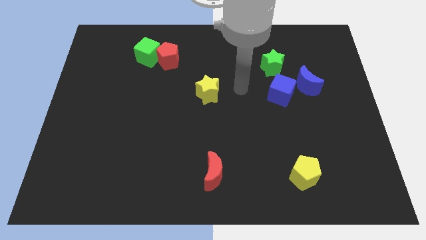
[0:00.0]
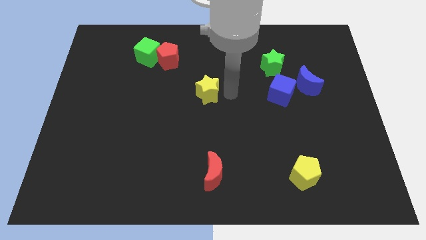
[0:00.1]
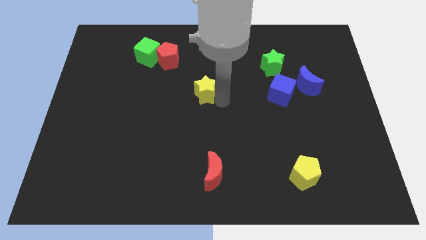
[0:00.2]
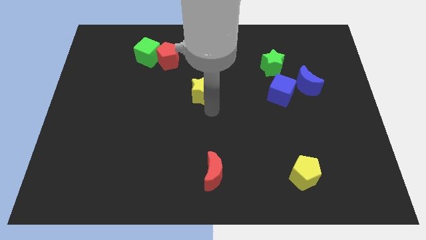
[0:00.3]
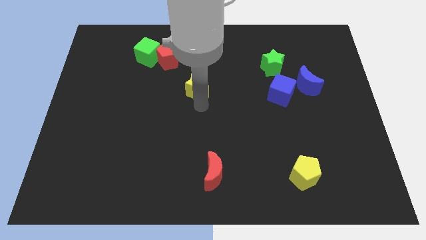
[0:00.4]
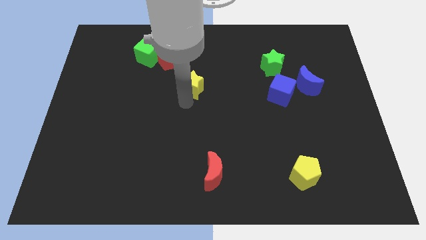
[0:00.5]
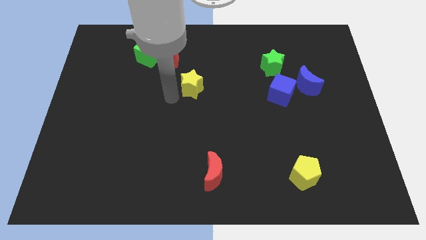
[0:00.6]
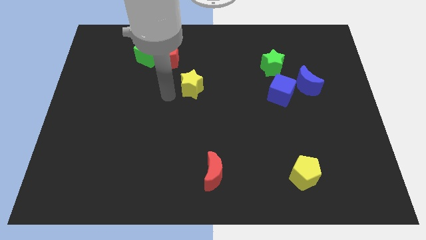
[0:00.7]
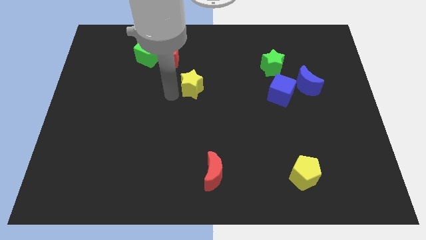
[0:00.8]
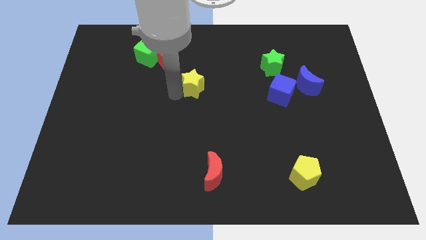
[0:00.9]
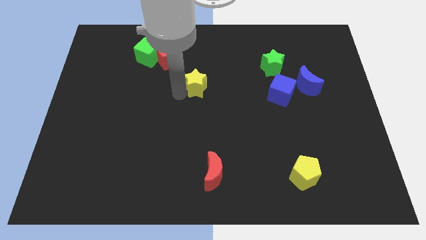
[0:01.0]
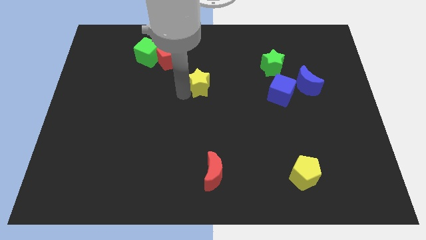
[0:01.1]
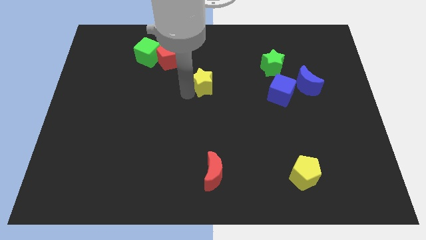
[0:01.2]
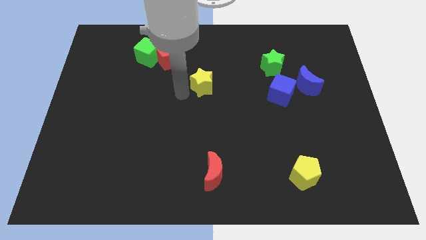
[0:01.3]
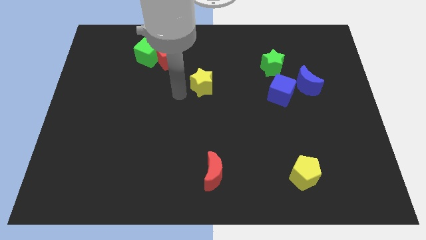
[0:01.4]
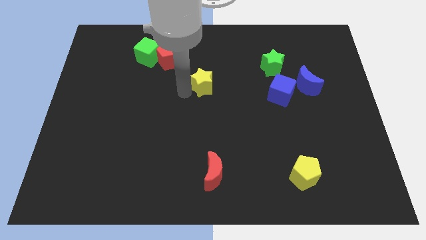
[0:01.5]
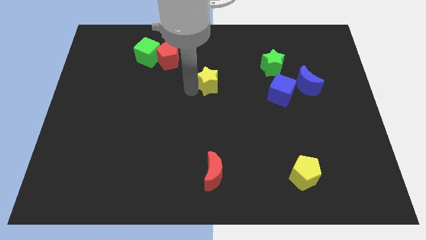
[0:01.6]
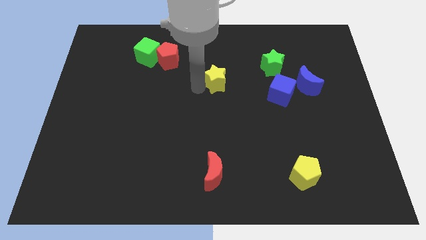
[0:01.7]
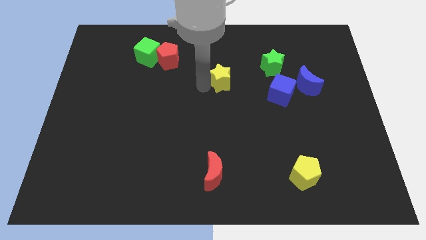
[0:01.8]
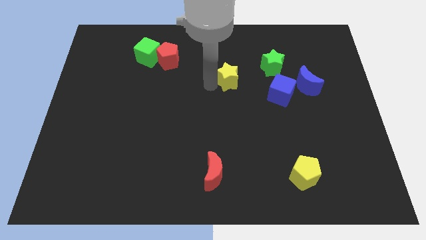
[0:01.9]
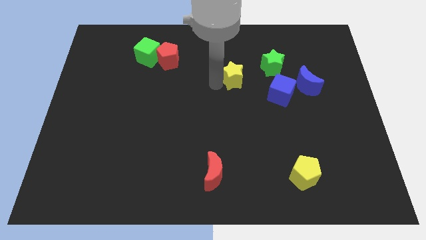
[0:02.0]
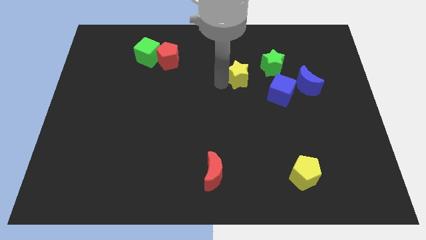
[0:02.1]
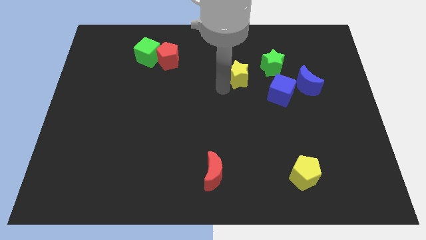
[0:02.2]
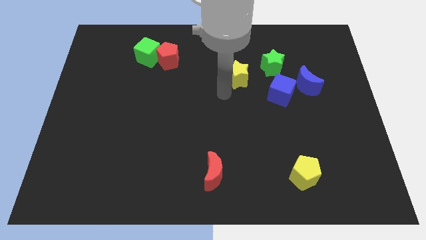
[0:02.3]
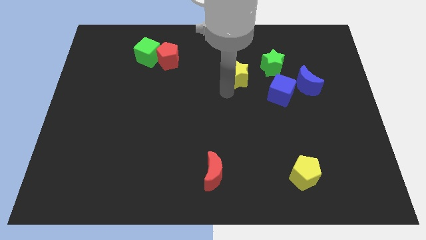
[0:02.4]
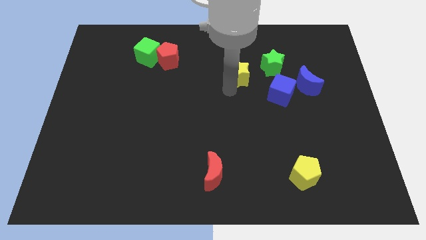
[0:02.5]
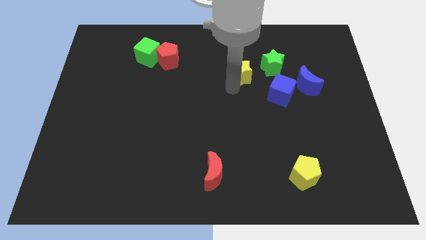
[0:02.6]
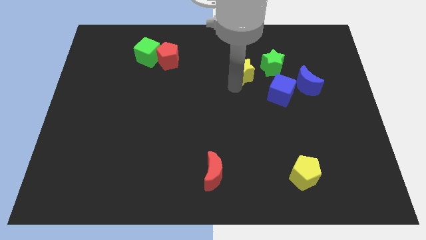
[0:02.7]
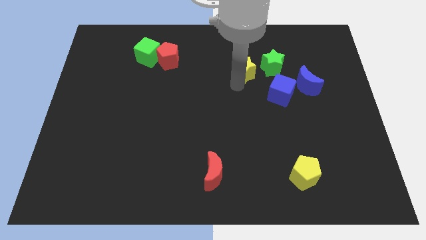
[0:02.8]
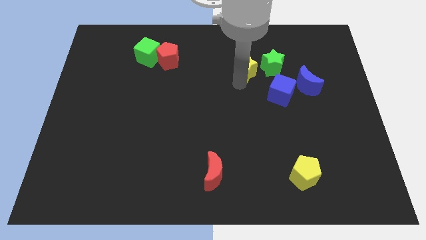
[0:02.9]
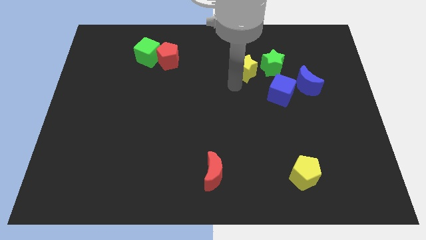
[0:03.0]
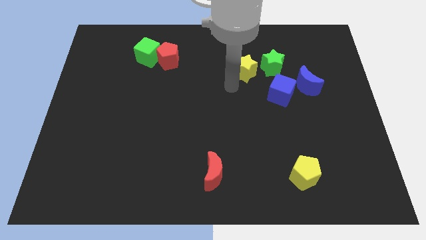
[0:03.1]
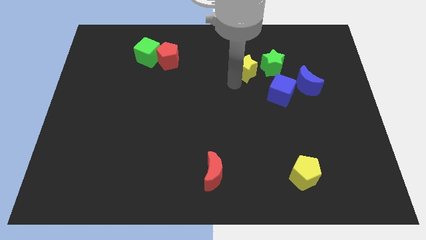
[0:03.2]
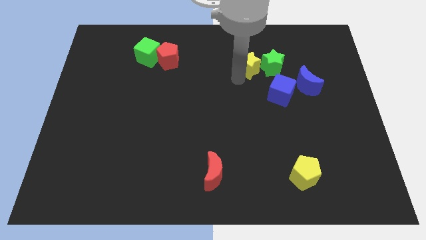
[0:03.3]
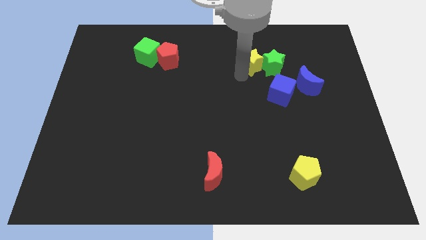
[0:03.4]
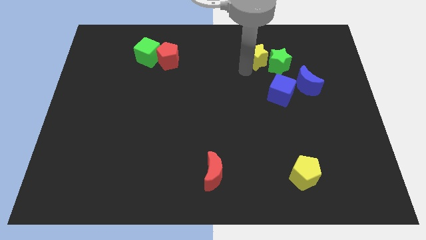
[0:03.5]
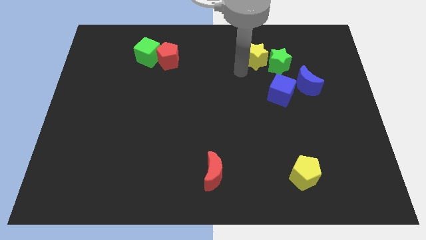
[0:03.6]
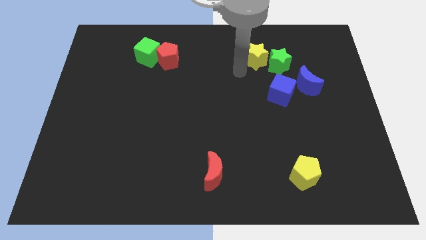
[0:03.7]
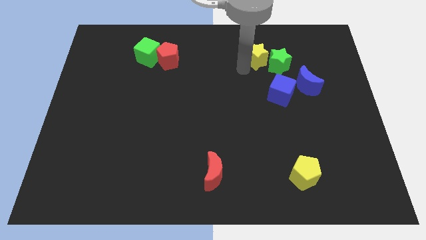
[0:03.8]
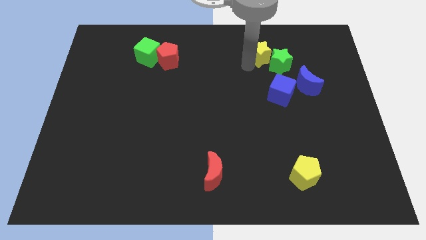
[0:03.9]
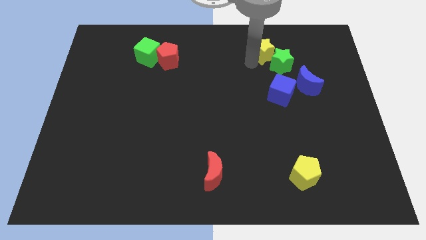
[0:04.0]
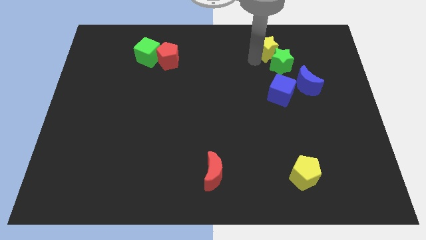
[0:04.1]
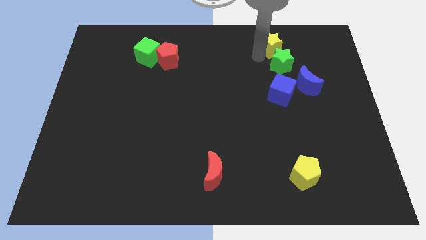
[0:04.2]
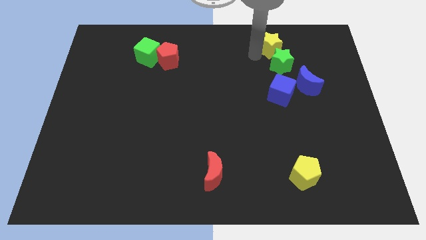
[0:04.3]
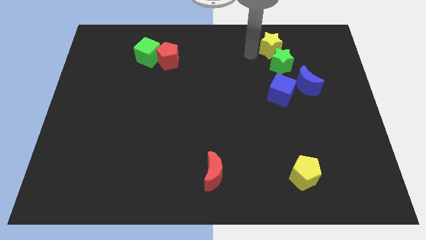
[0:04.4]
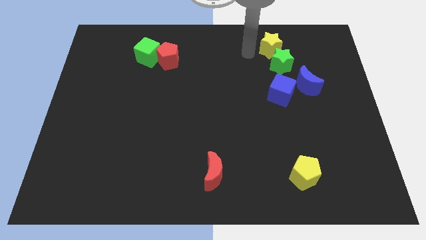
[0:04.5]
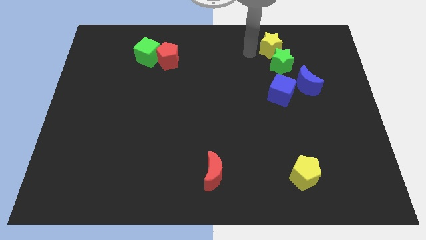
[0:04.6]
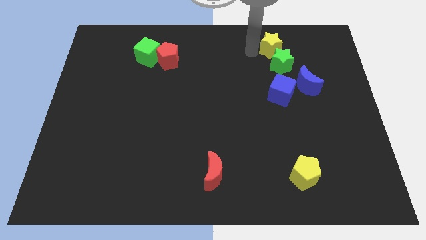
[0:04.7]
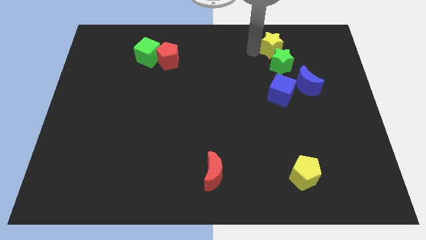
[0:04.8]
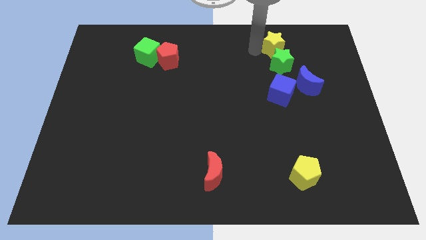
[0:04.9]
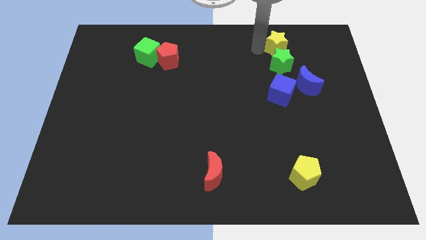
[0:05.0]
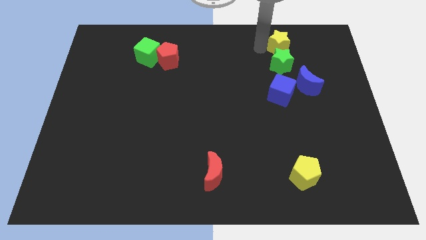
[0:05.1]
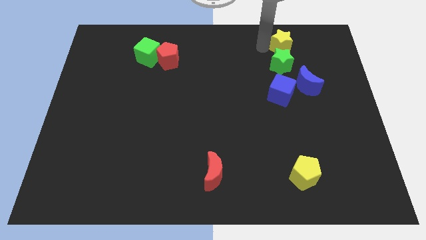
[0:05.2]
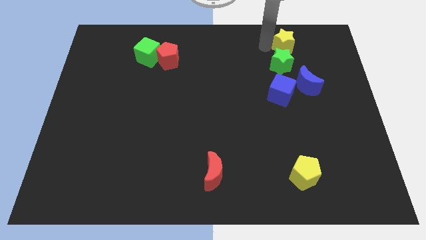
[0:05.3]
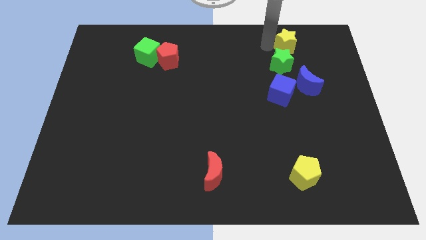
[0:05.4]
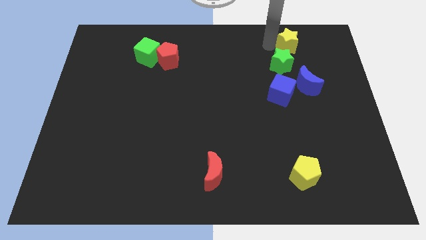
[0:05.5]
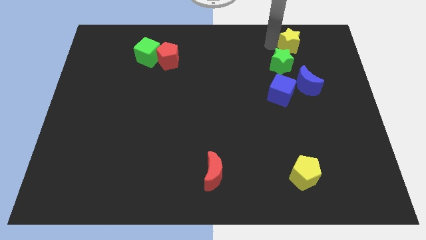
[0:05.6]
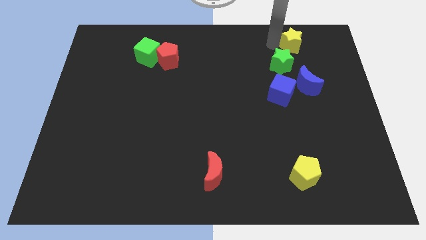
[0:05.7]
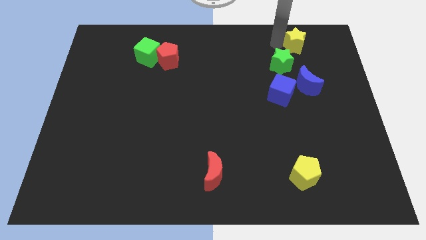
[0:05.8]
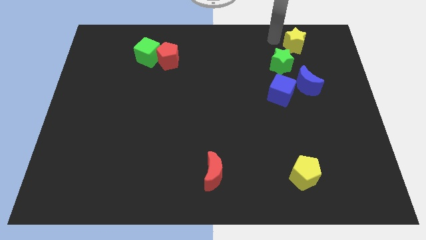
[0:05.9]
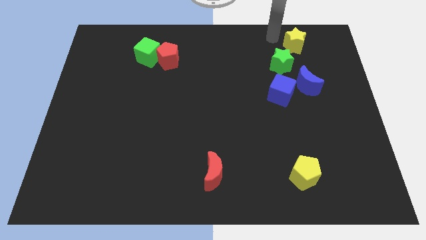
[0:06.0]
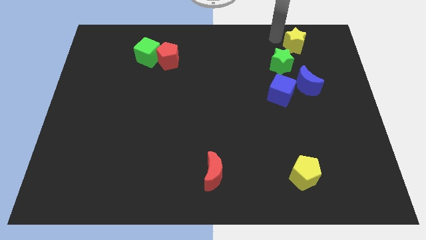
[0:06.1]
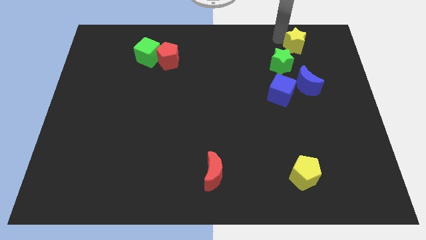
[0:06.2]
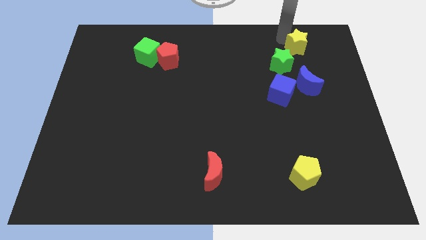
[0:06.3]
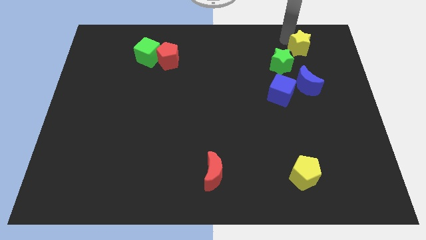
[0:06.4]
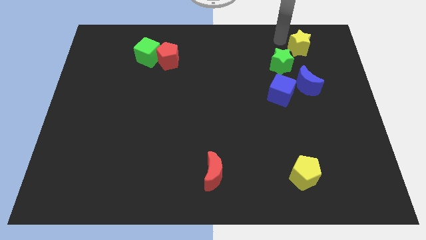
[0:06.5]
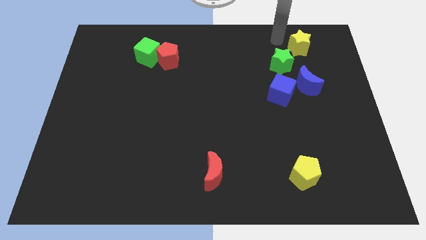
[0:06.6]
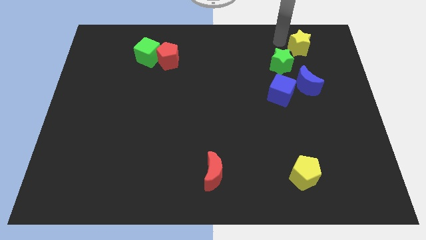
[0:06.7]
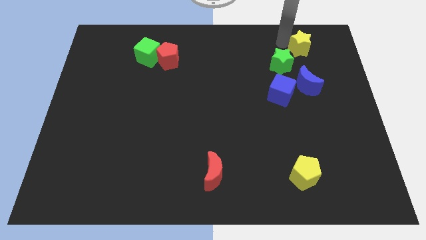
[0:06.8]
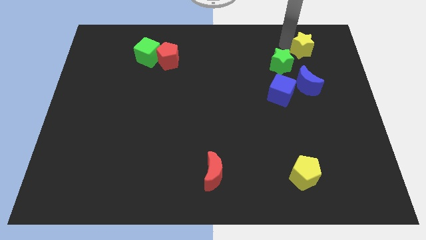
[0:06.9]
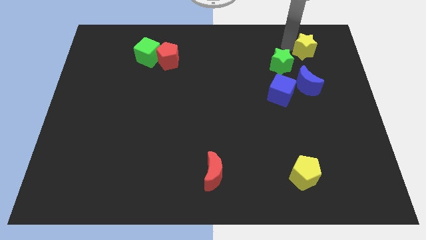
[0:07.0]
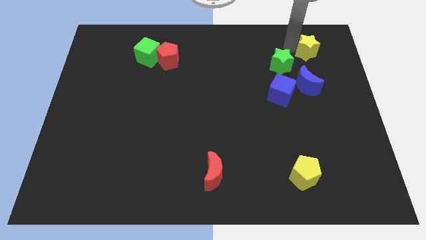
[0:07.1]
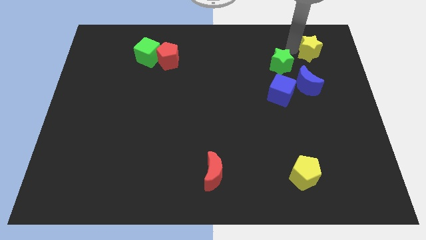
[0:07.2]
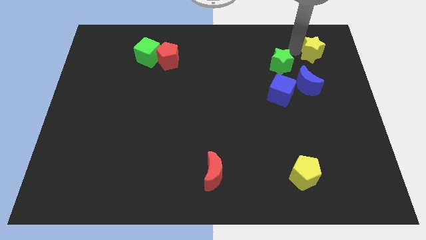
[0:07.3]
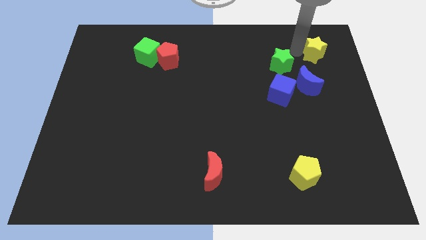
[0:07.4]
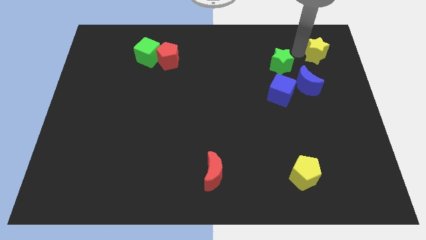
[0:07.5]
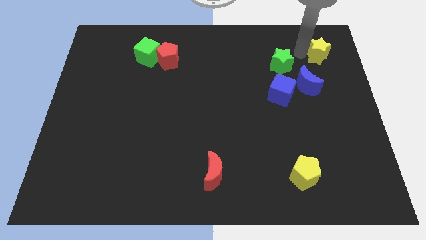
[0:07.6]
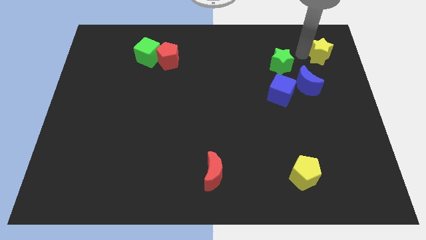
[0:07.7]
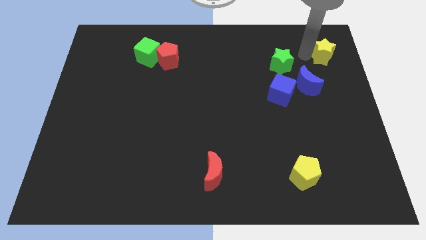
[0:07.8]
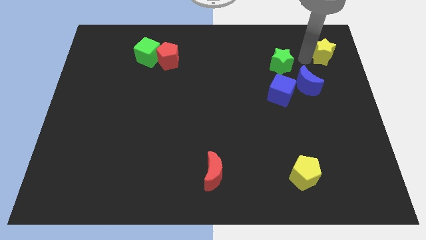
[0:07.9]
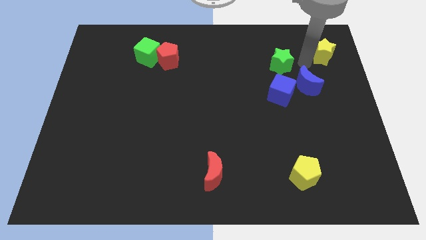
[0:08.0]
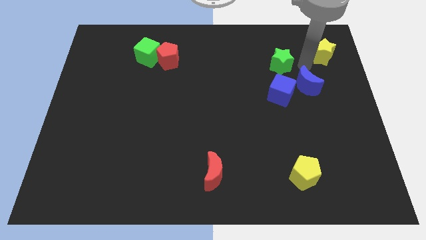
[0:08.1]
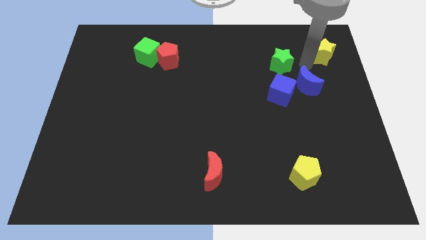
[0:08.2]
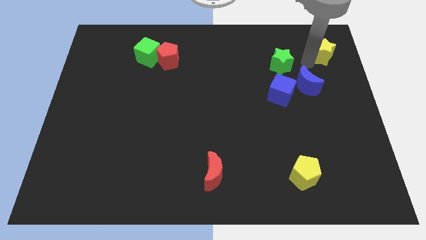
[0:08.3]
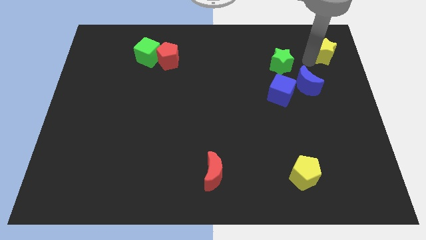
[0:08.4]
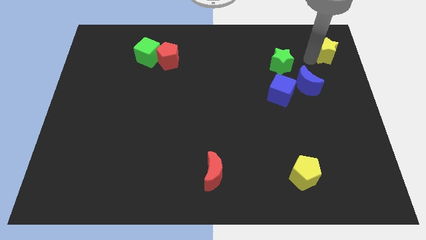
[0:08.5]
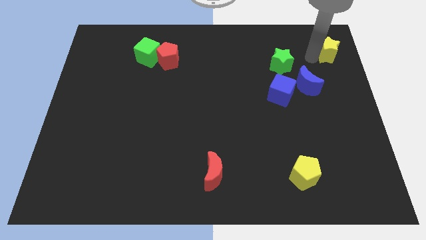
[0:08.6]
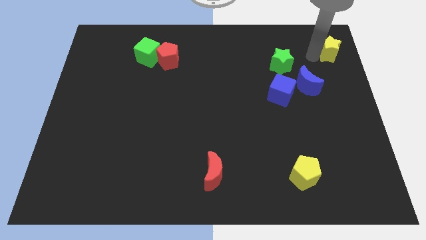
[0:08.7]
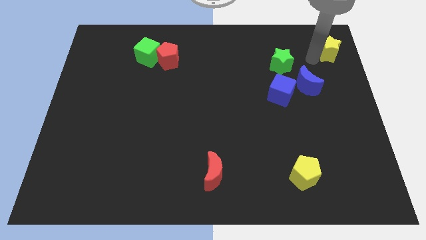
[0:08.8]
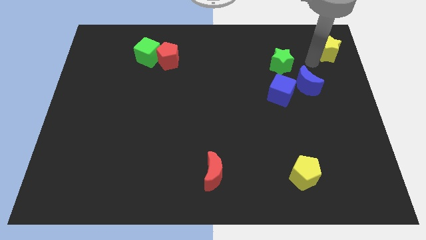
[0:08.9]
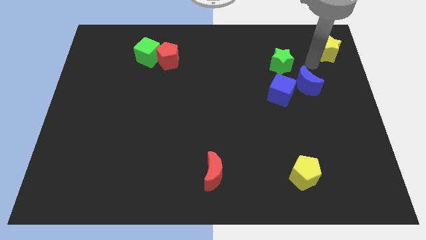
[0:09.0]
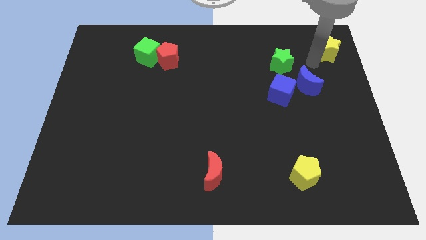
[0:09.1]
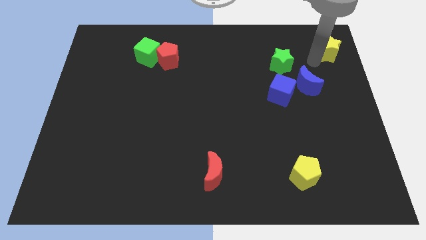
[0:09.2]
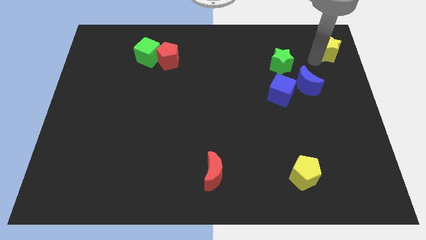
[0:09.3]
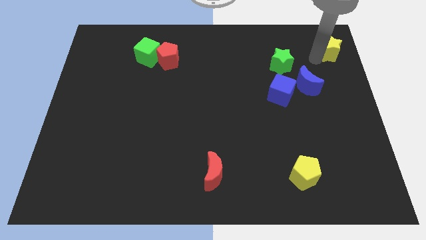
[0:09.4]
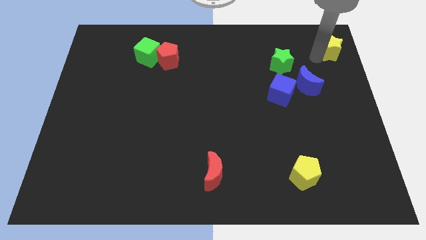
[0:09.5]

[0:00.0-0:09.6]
slide the yellow star to the top right corner
